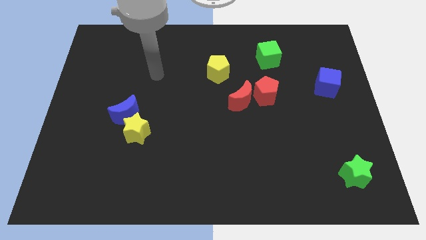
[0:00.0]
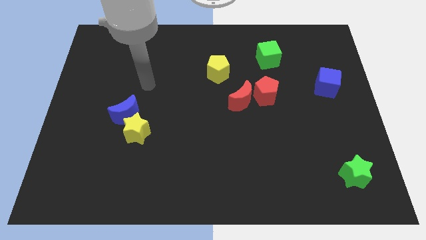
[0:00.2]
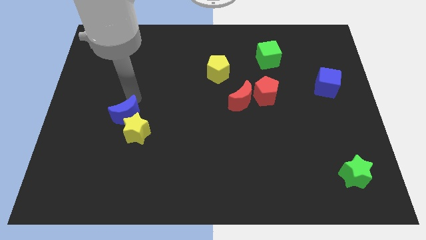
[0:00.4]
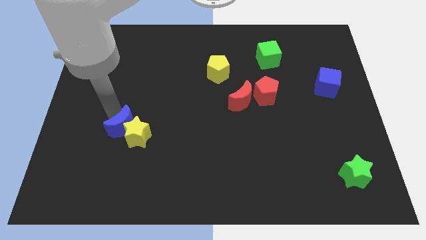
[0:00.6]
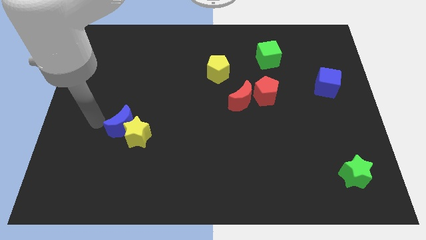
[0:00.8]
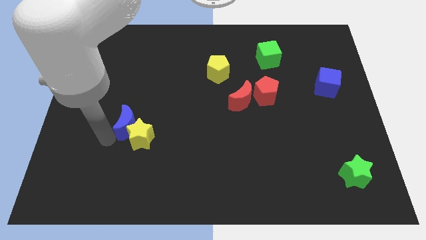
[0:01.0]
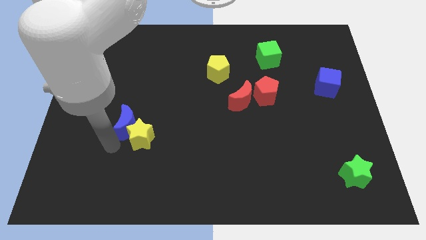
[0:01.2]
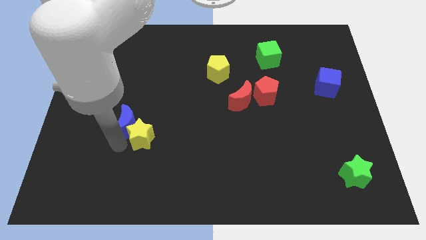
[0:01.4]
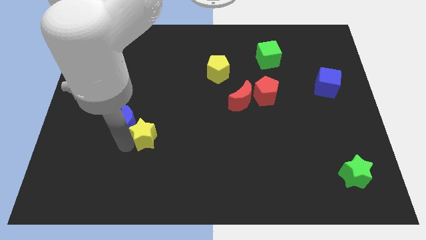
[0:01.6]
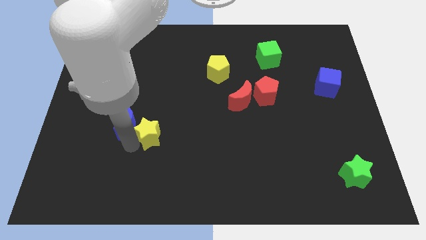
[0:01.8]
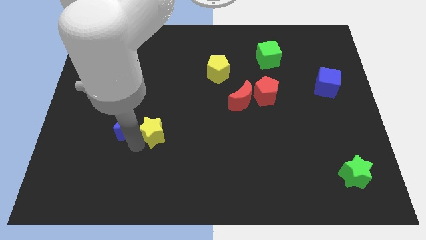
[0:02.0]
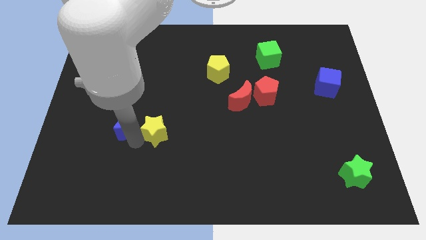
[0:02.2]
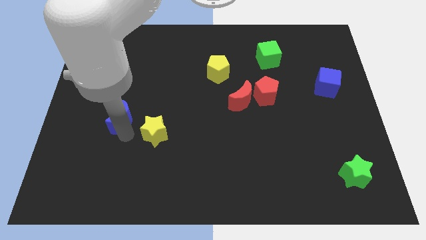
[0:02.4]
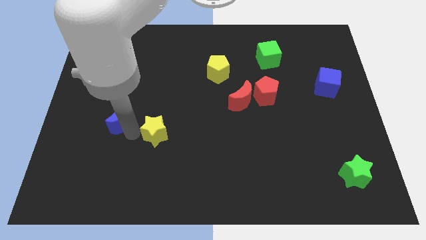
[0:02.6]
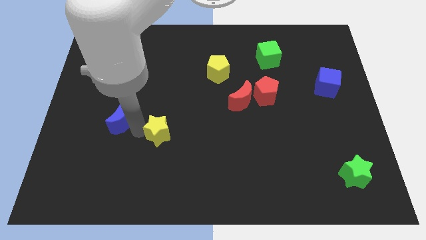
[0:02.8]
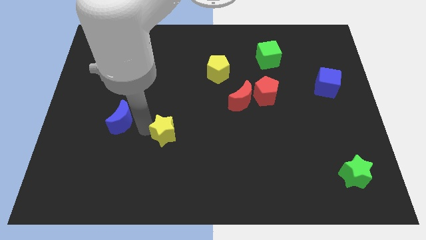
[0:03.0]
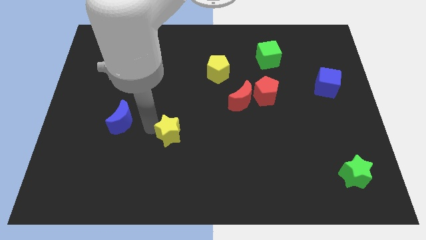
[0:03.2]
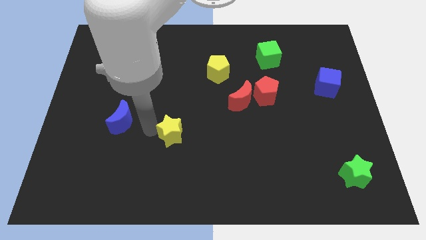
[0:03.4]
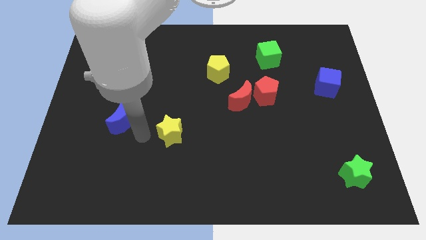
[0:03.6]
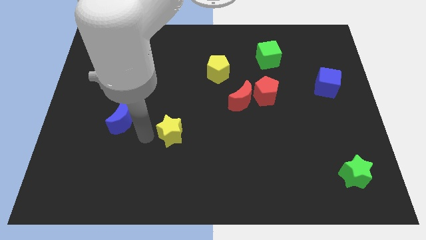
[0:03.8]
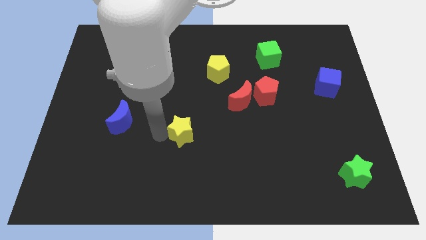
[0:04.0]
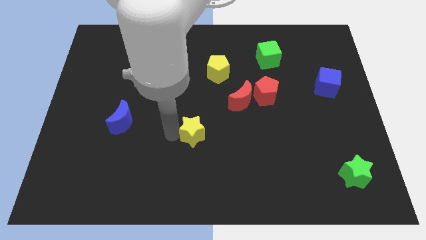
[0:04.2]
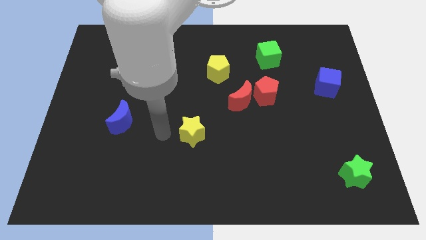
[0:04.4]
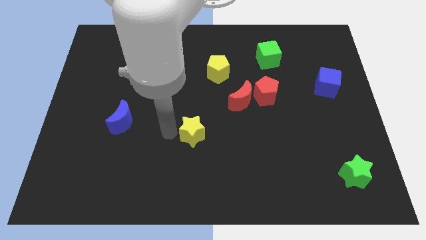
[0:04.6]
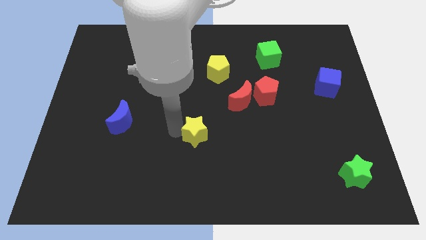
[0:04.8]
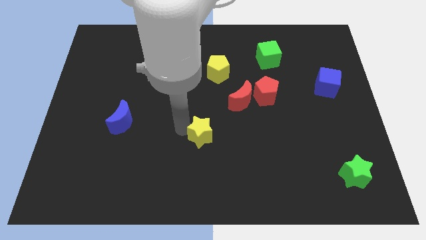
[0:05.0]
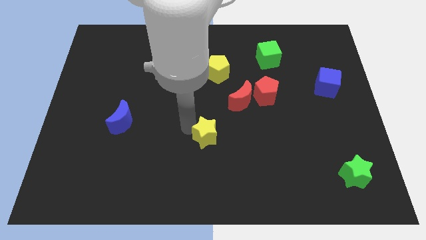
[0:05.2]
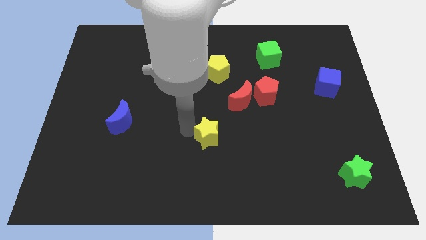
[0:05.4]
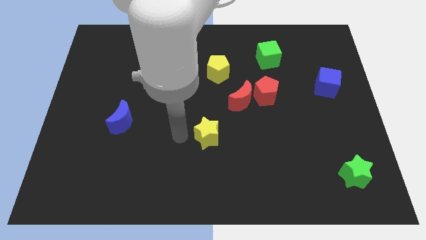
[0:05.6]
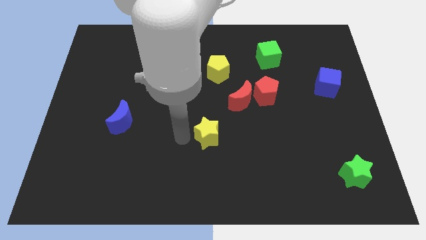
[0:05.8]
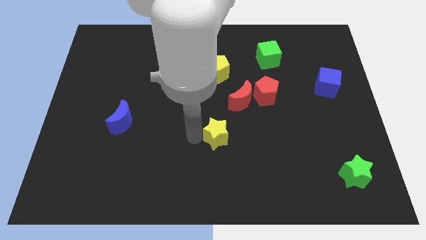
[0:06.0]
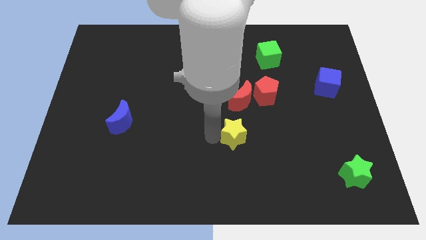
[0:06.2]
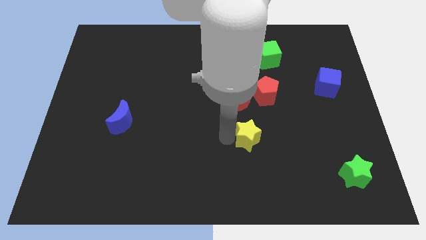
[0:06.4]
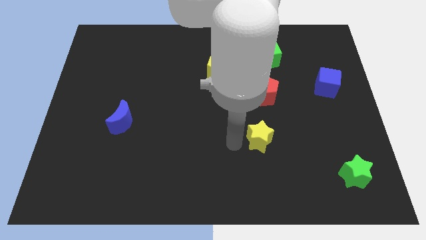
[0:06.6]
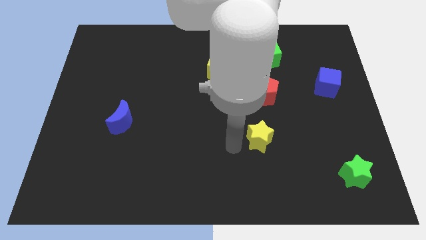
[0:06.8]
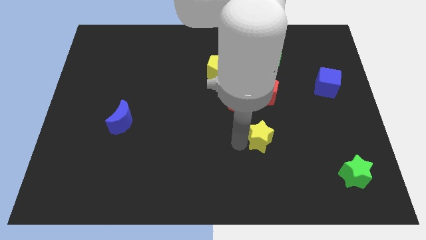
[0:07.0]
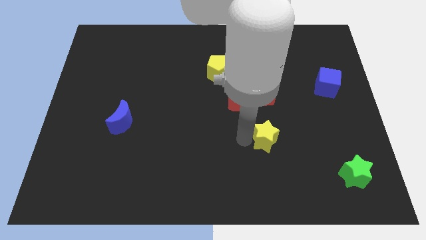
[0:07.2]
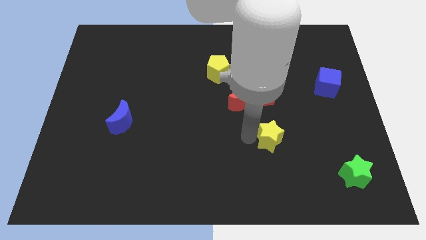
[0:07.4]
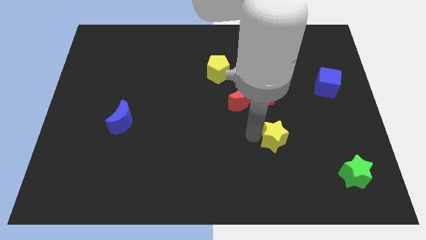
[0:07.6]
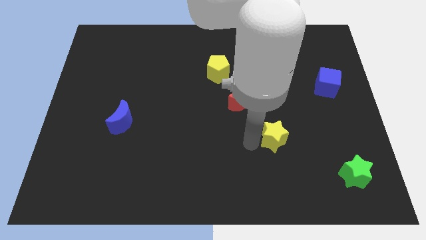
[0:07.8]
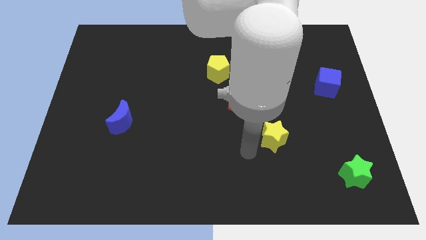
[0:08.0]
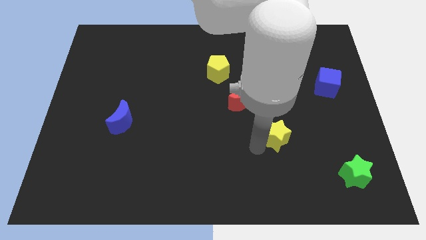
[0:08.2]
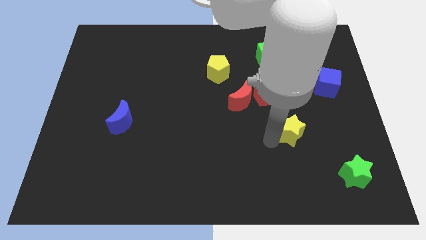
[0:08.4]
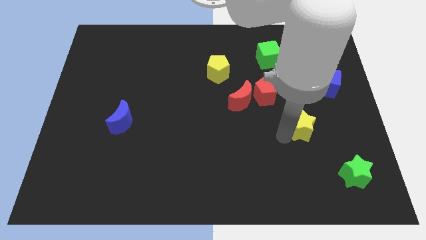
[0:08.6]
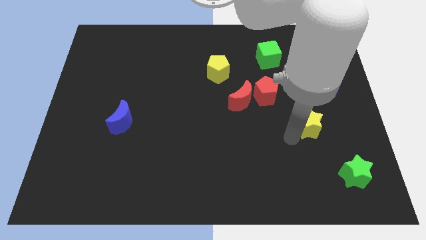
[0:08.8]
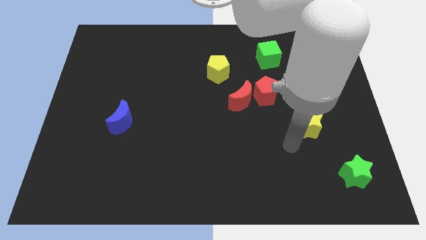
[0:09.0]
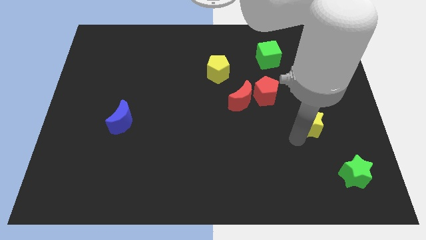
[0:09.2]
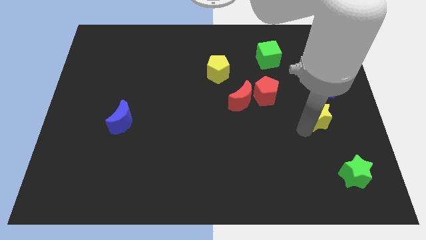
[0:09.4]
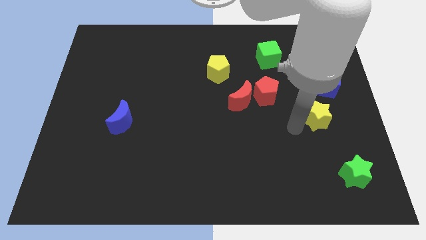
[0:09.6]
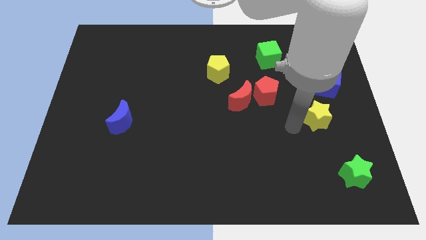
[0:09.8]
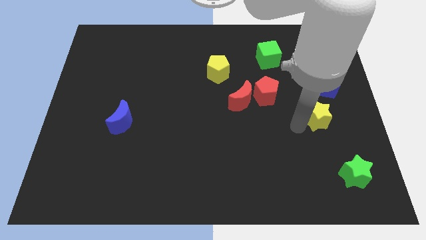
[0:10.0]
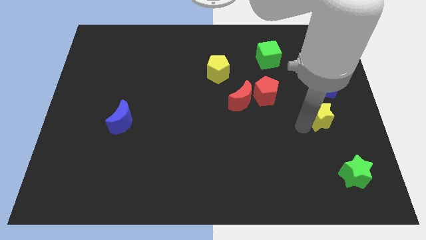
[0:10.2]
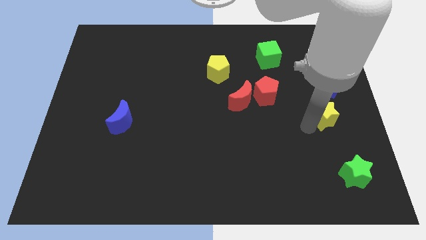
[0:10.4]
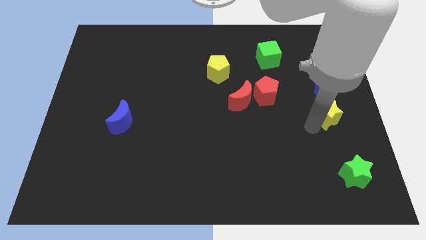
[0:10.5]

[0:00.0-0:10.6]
slide the yellow star to the right side of the board

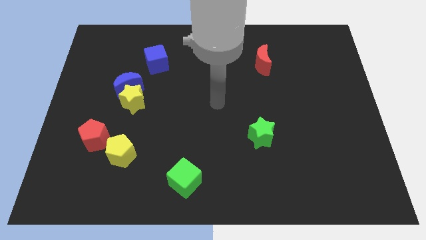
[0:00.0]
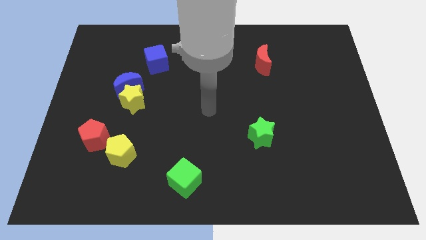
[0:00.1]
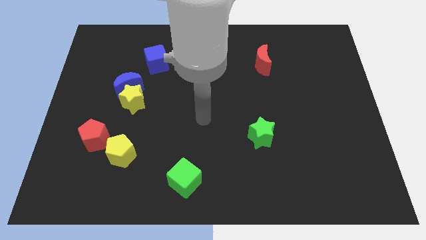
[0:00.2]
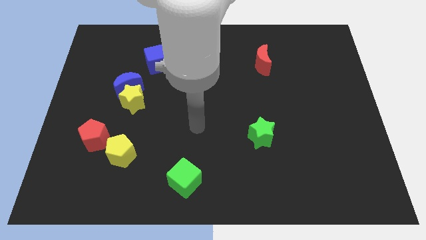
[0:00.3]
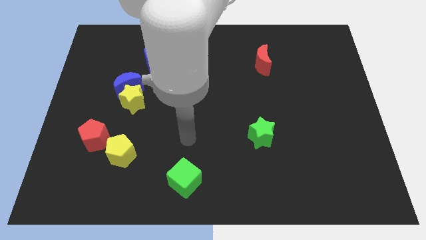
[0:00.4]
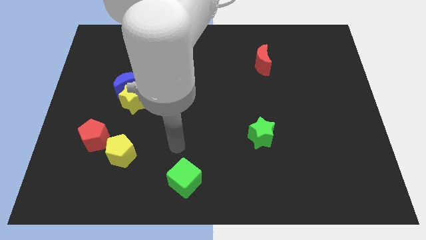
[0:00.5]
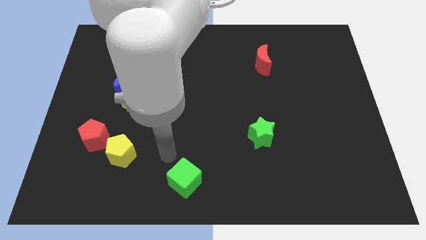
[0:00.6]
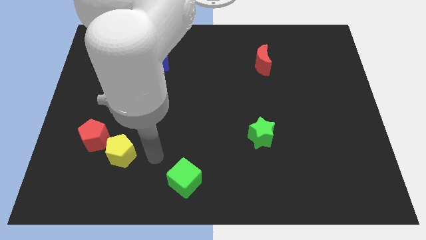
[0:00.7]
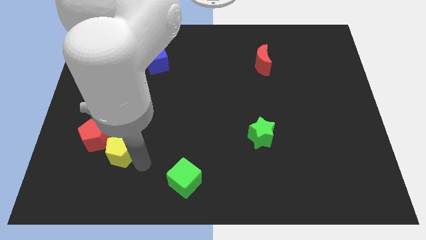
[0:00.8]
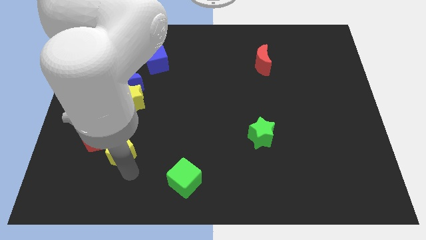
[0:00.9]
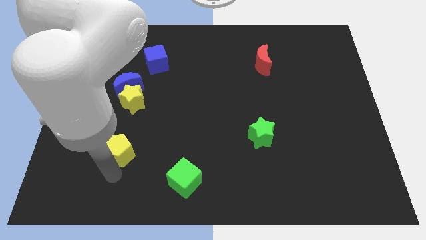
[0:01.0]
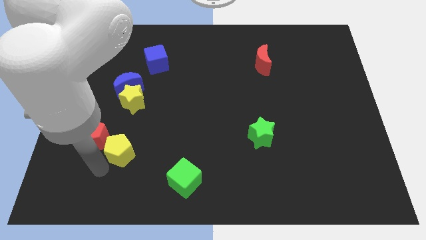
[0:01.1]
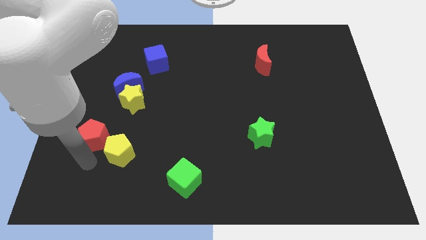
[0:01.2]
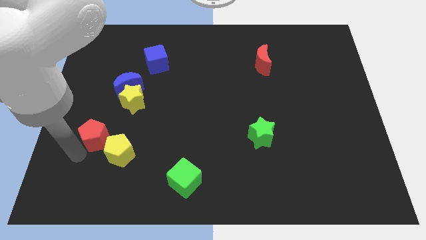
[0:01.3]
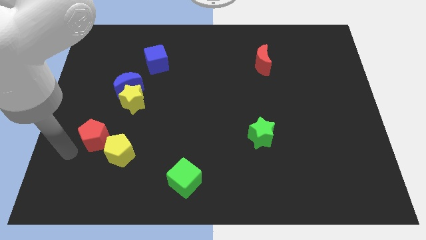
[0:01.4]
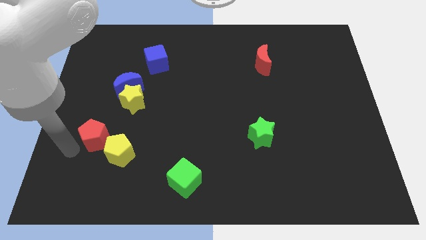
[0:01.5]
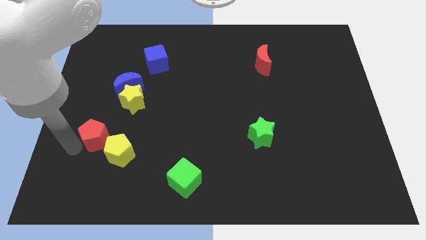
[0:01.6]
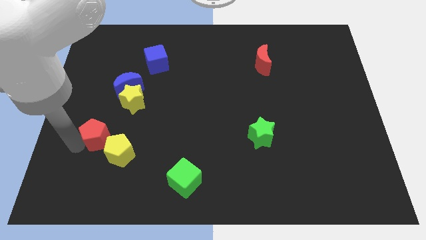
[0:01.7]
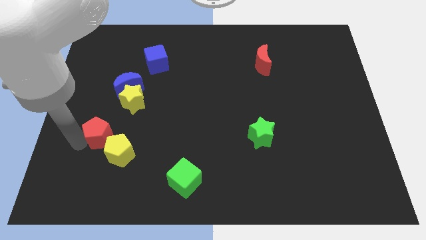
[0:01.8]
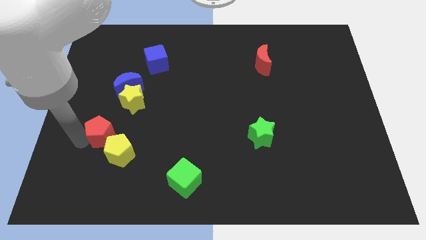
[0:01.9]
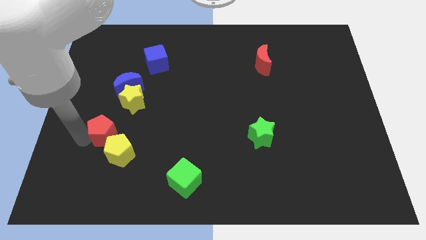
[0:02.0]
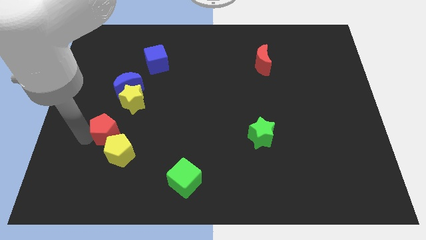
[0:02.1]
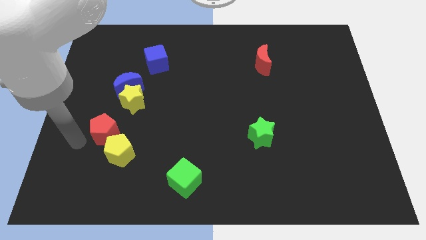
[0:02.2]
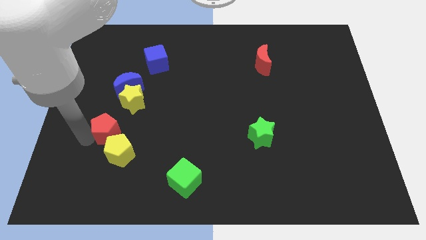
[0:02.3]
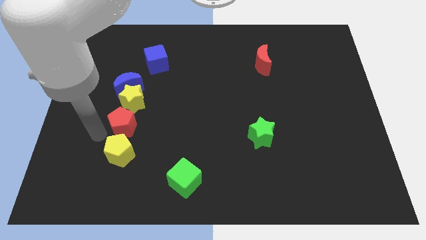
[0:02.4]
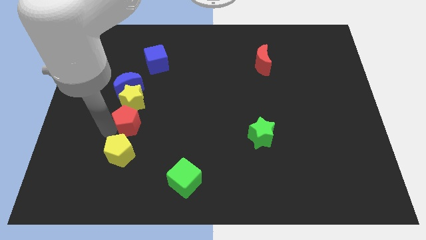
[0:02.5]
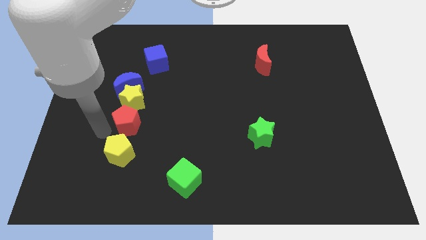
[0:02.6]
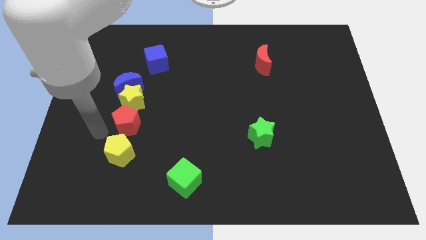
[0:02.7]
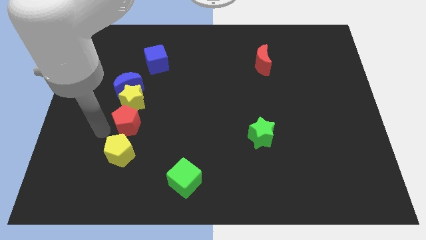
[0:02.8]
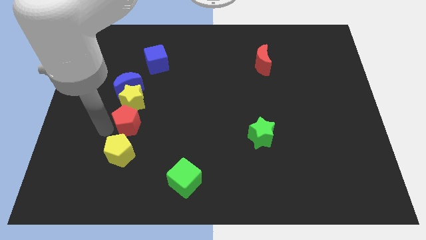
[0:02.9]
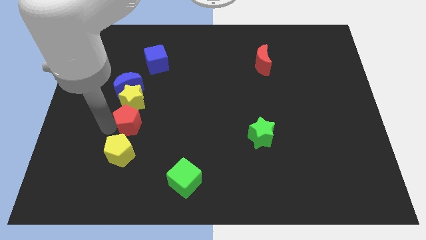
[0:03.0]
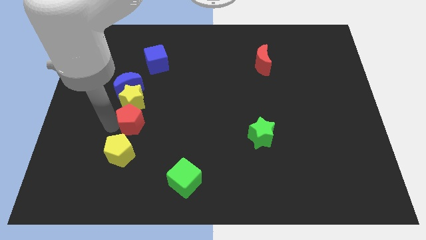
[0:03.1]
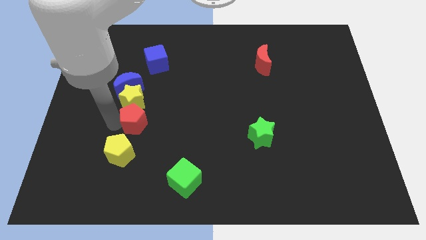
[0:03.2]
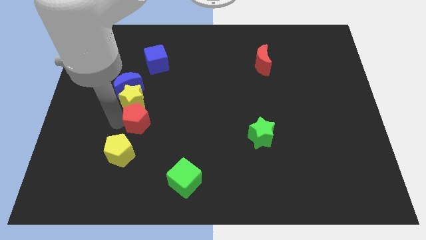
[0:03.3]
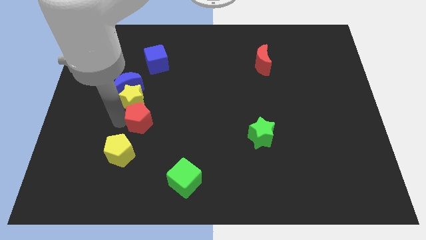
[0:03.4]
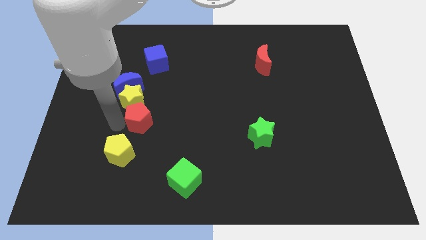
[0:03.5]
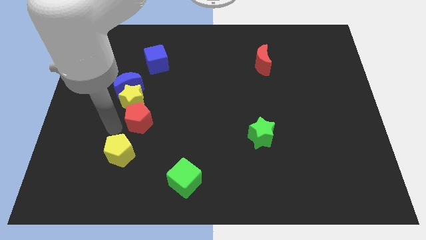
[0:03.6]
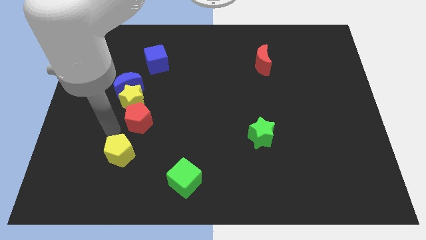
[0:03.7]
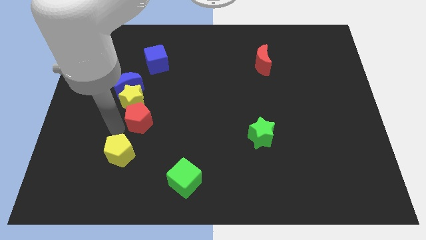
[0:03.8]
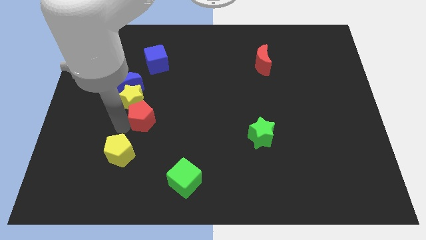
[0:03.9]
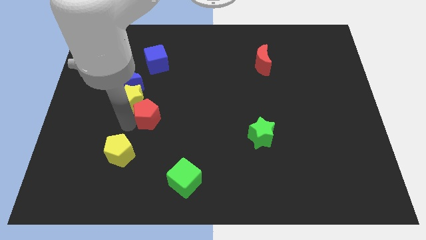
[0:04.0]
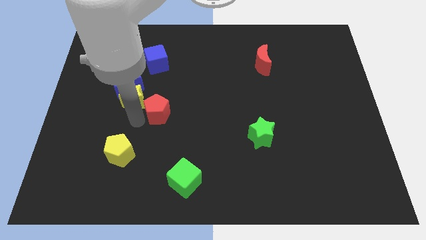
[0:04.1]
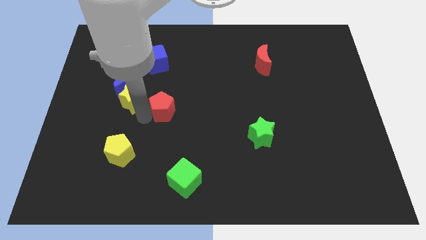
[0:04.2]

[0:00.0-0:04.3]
slide the red pentagon to the middle of the board
